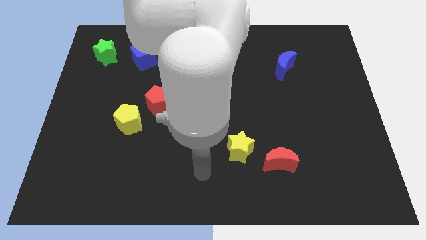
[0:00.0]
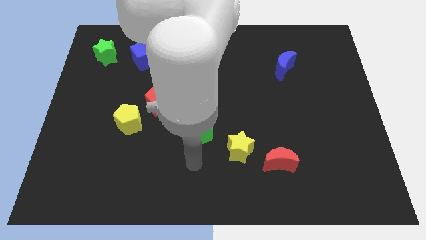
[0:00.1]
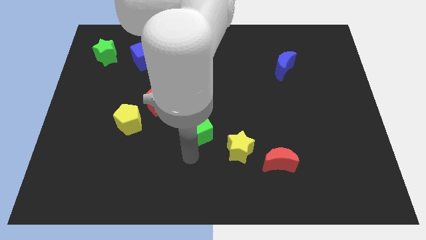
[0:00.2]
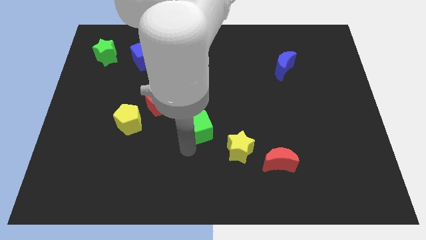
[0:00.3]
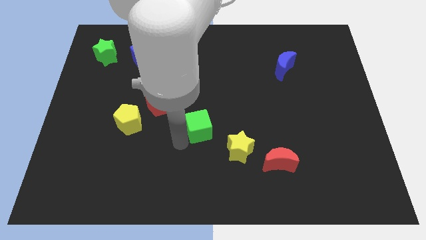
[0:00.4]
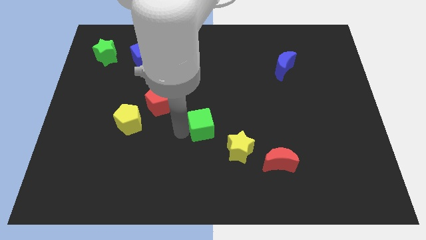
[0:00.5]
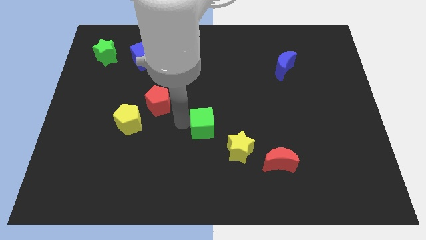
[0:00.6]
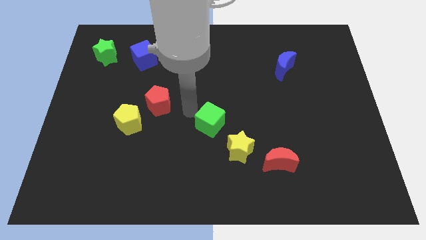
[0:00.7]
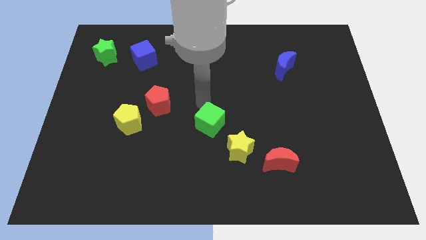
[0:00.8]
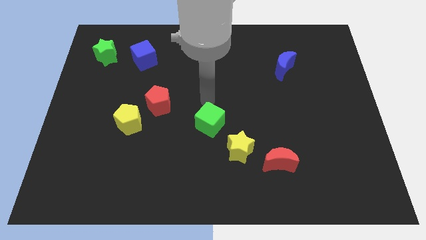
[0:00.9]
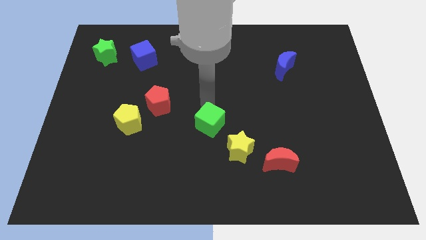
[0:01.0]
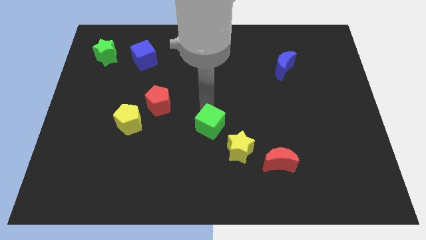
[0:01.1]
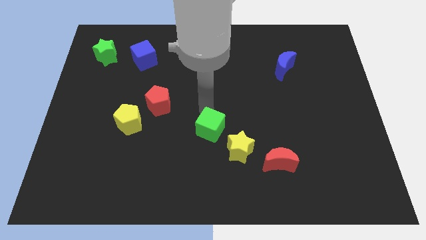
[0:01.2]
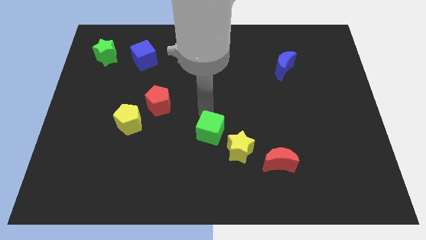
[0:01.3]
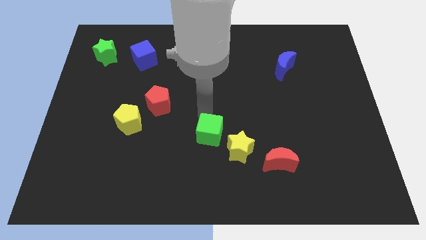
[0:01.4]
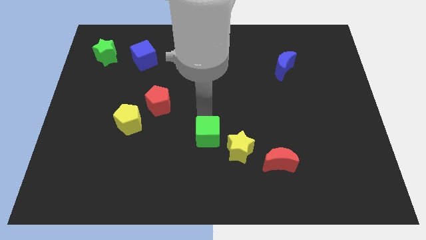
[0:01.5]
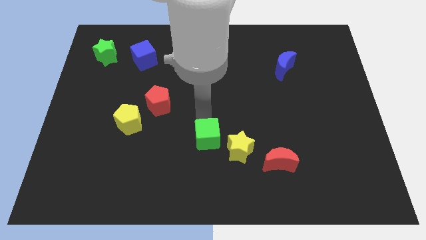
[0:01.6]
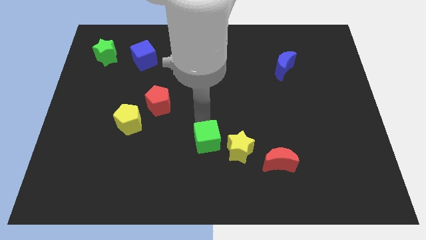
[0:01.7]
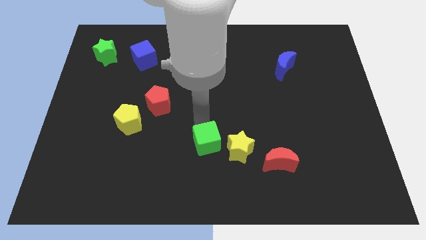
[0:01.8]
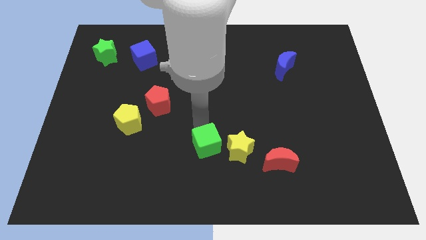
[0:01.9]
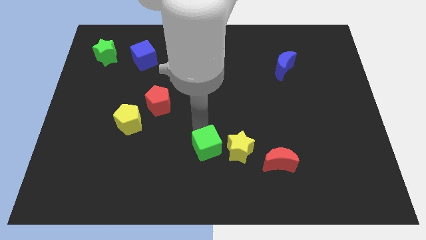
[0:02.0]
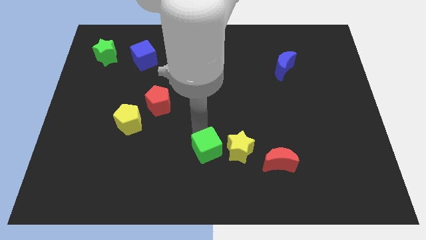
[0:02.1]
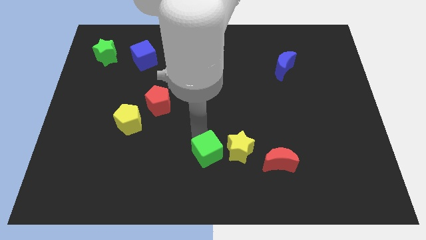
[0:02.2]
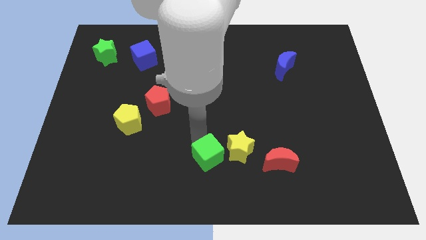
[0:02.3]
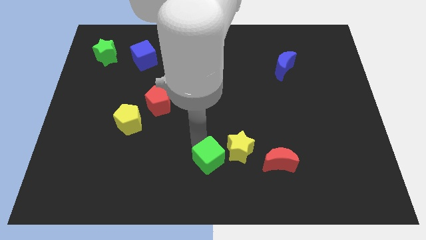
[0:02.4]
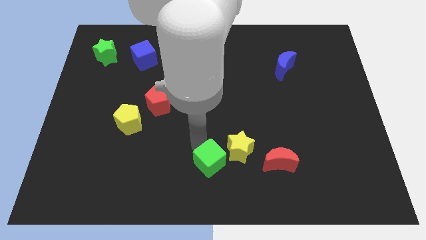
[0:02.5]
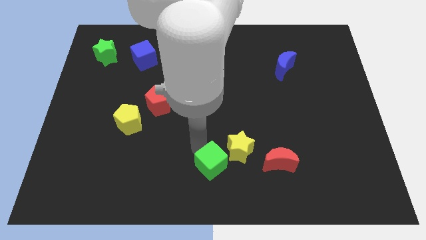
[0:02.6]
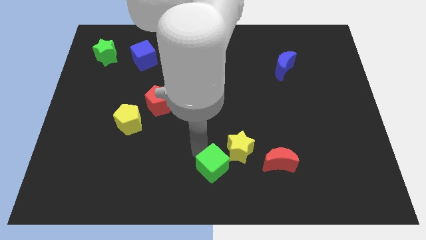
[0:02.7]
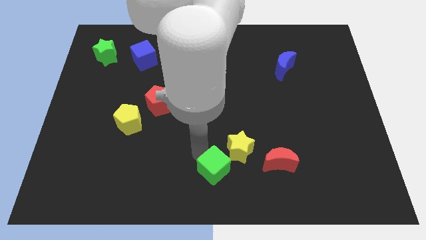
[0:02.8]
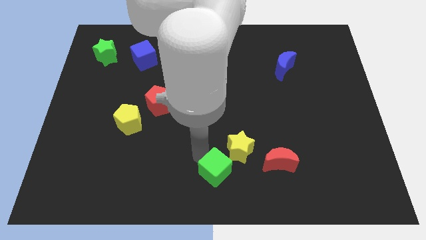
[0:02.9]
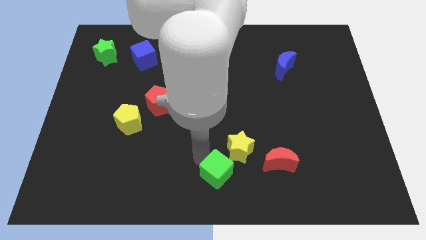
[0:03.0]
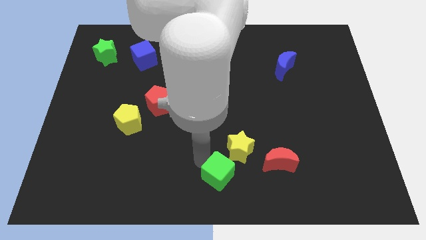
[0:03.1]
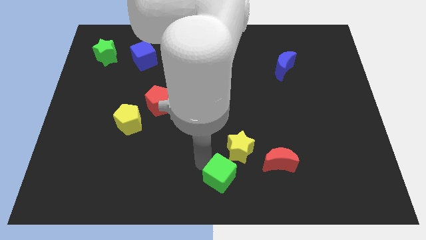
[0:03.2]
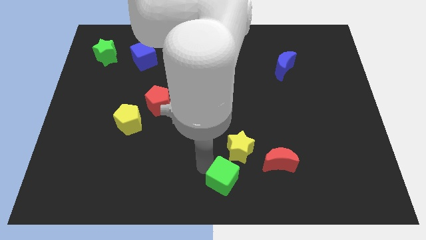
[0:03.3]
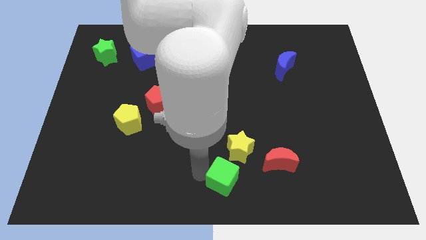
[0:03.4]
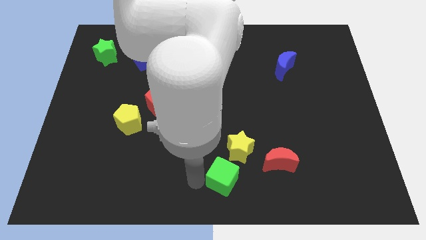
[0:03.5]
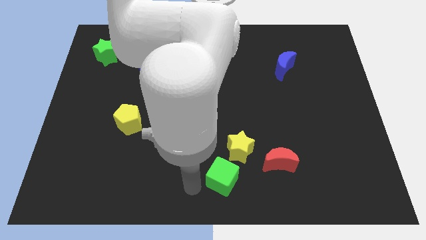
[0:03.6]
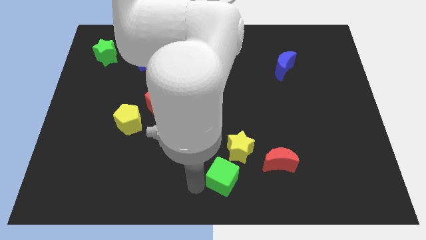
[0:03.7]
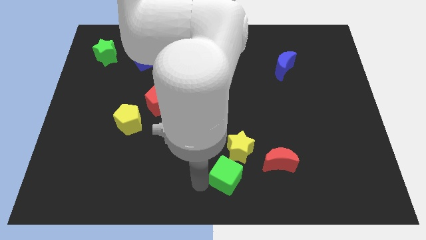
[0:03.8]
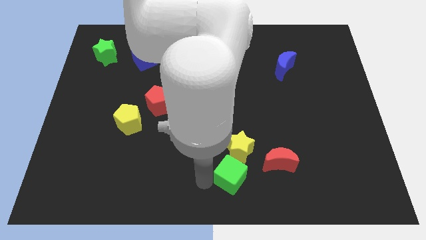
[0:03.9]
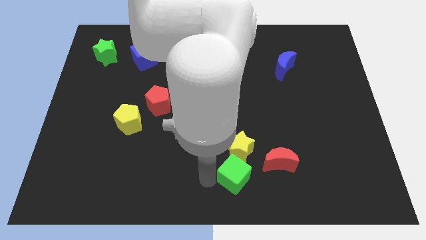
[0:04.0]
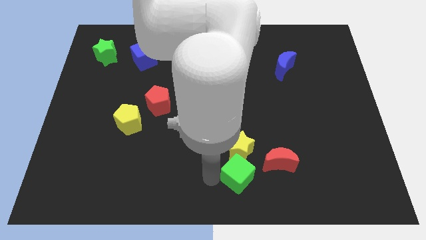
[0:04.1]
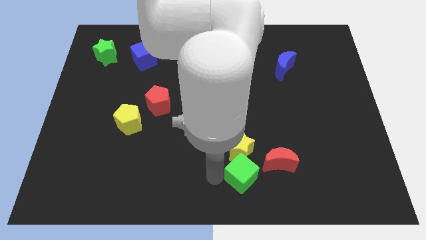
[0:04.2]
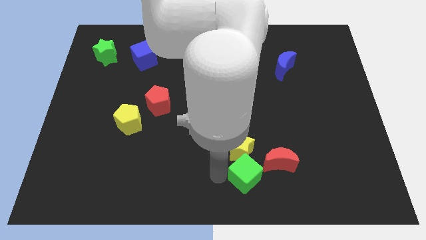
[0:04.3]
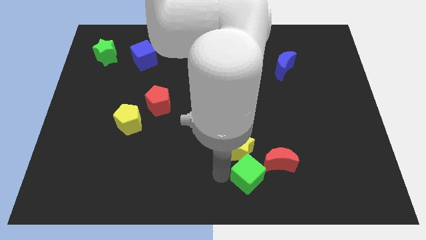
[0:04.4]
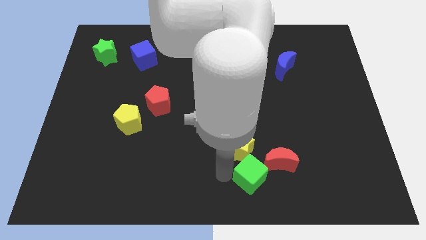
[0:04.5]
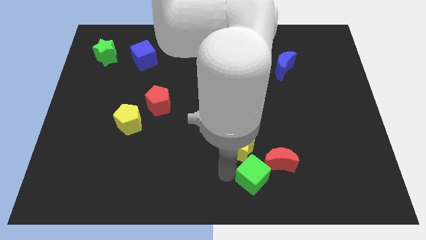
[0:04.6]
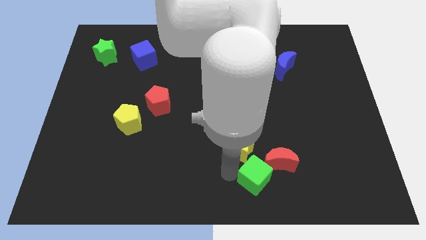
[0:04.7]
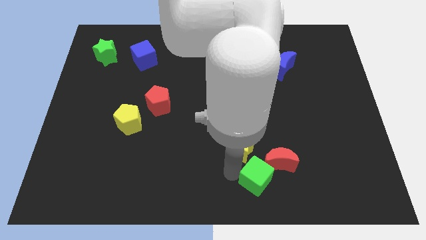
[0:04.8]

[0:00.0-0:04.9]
move the green cube next to the red moon

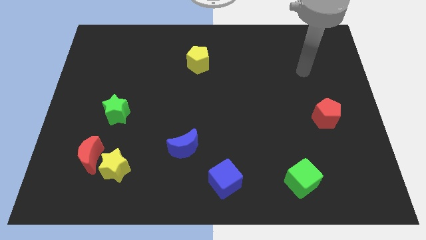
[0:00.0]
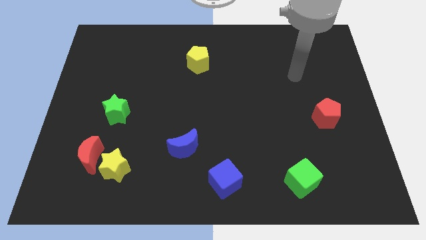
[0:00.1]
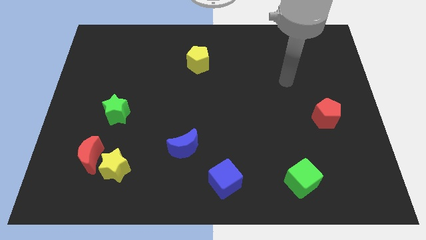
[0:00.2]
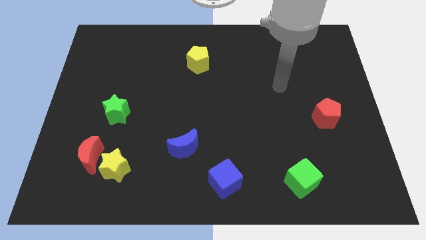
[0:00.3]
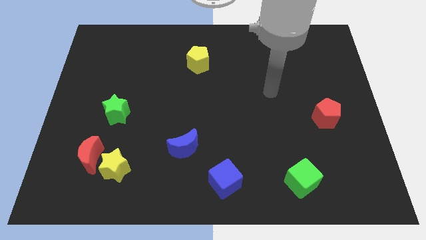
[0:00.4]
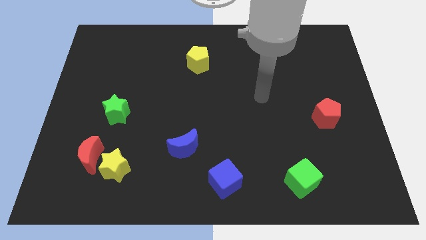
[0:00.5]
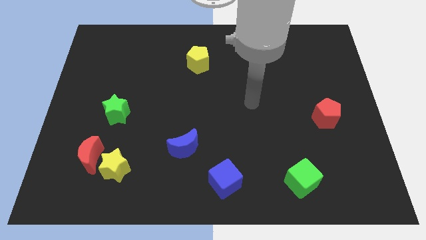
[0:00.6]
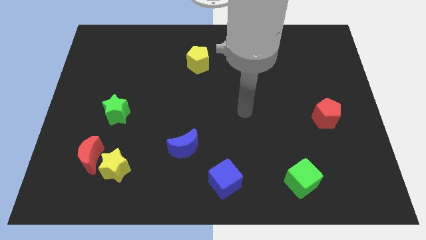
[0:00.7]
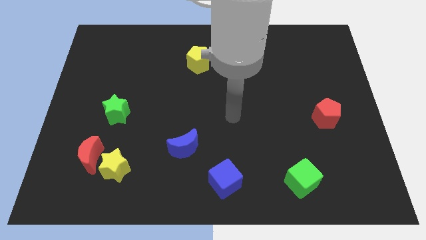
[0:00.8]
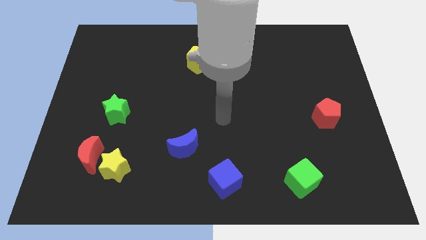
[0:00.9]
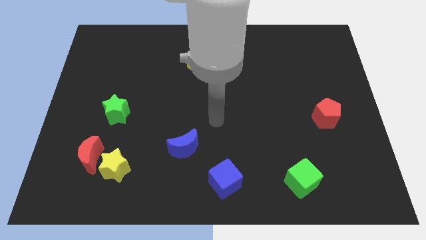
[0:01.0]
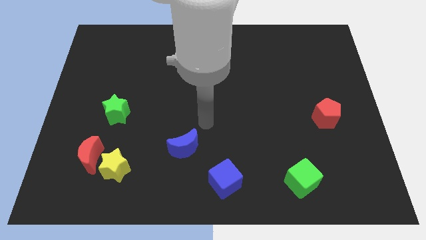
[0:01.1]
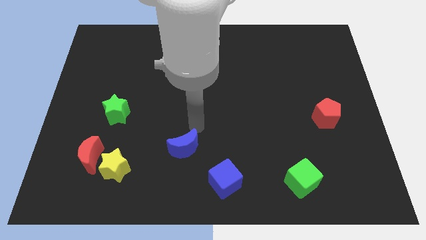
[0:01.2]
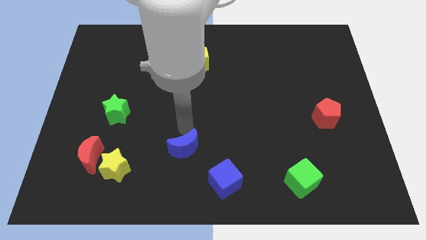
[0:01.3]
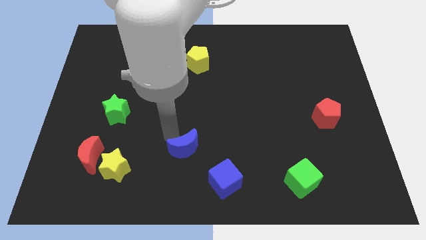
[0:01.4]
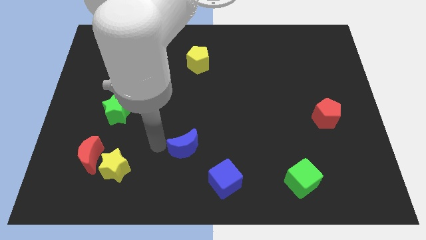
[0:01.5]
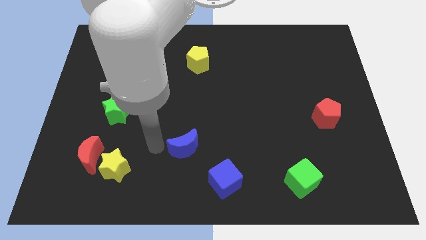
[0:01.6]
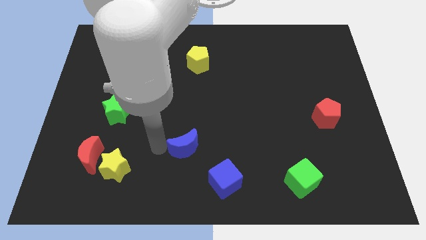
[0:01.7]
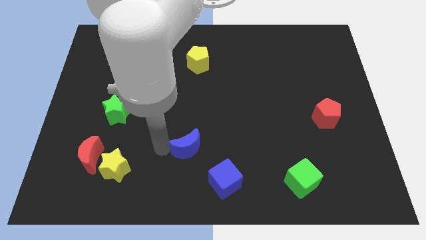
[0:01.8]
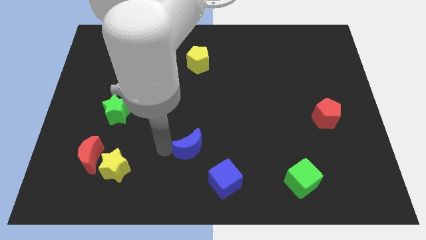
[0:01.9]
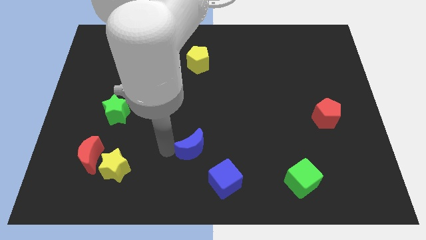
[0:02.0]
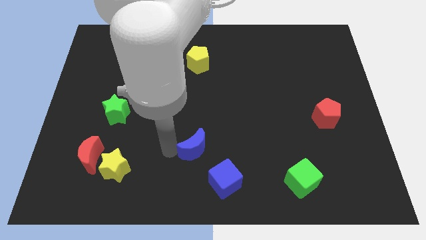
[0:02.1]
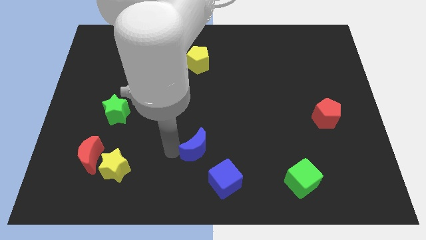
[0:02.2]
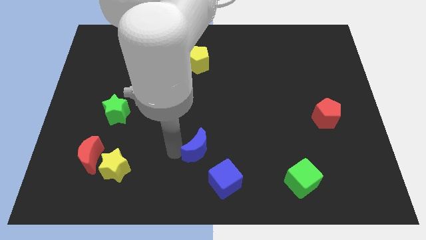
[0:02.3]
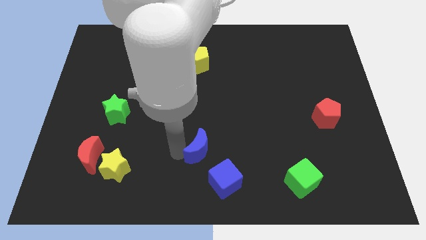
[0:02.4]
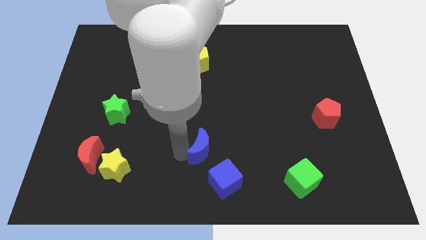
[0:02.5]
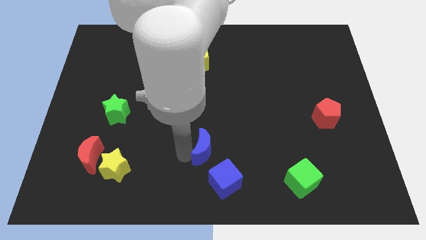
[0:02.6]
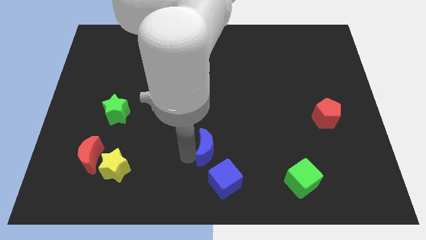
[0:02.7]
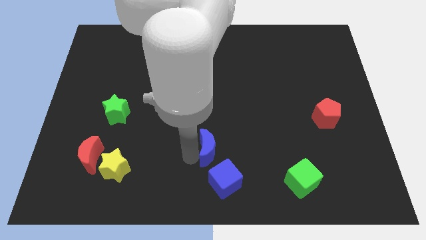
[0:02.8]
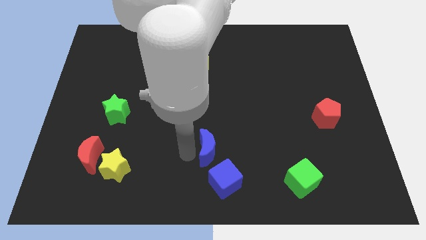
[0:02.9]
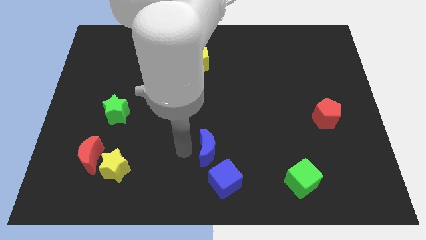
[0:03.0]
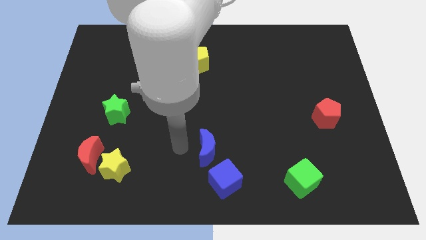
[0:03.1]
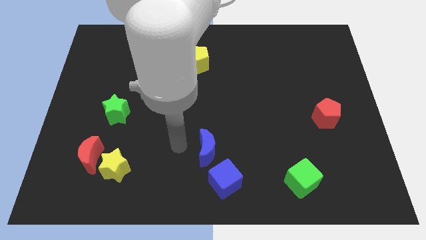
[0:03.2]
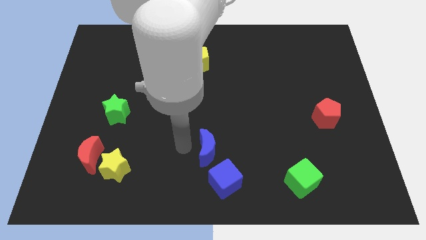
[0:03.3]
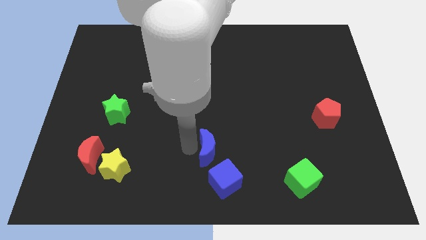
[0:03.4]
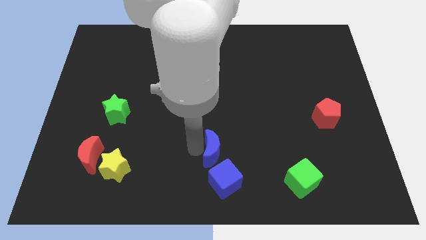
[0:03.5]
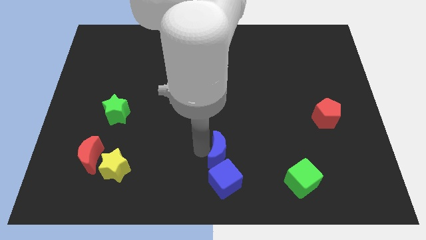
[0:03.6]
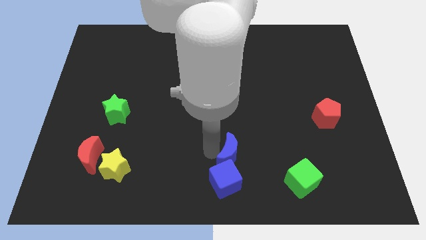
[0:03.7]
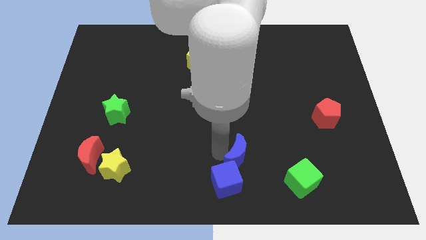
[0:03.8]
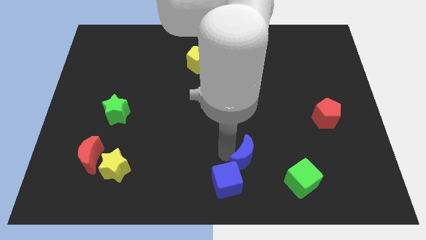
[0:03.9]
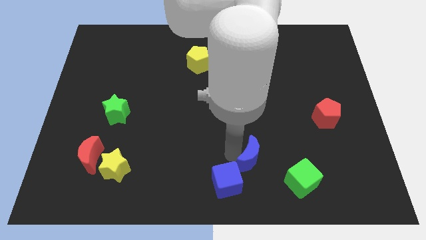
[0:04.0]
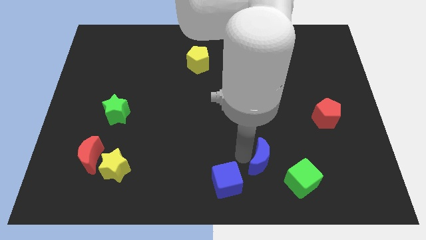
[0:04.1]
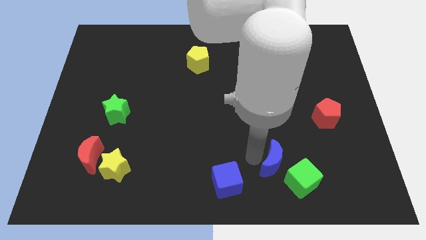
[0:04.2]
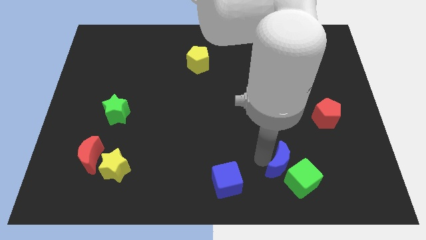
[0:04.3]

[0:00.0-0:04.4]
slide the blue moon towards the green cube
